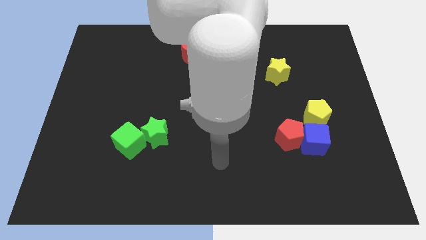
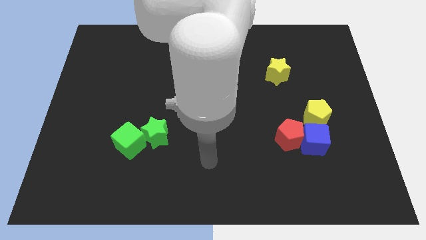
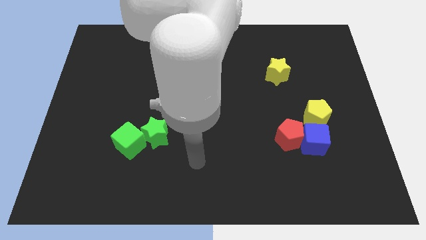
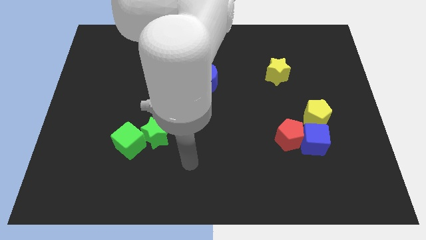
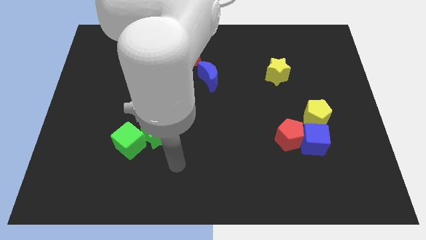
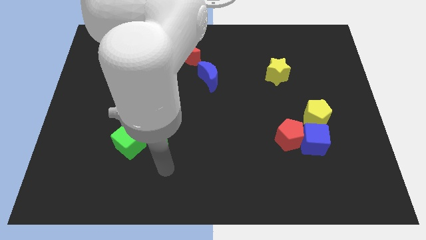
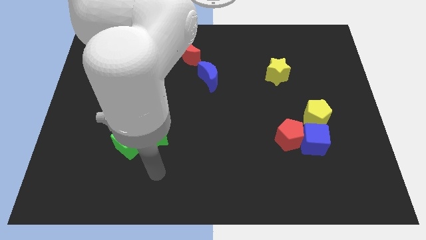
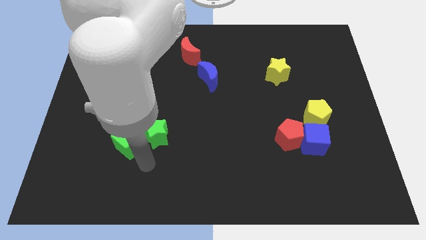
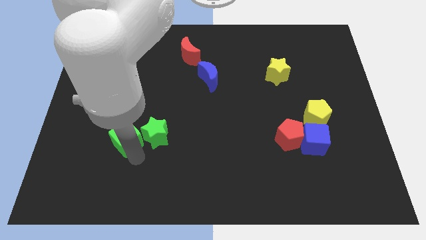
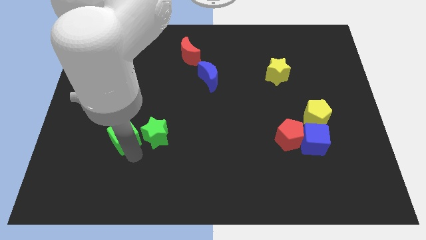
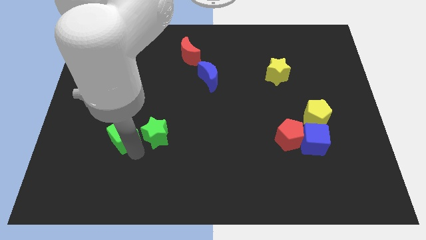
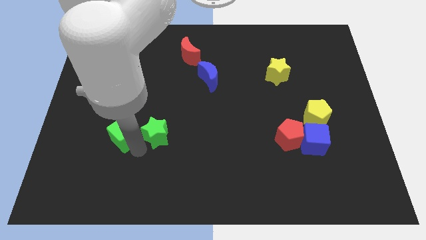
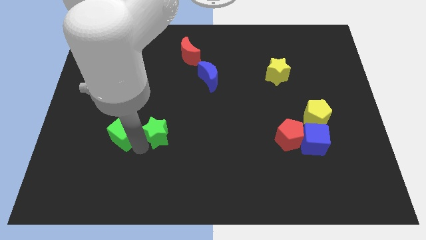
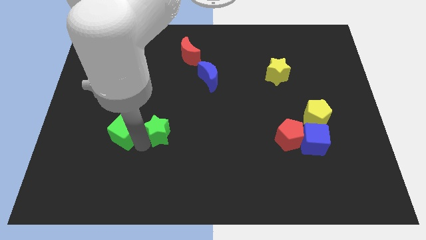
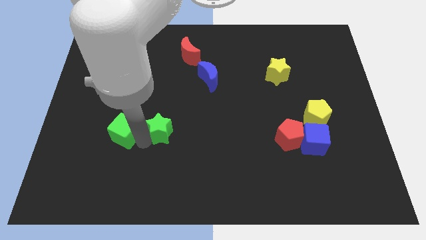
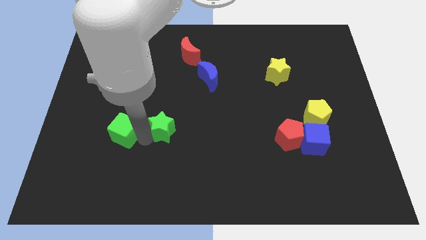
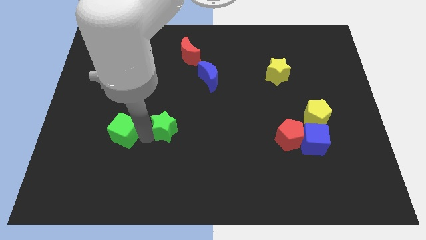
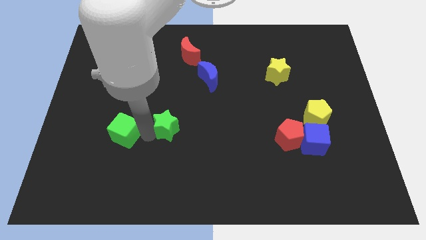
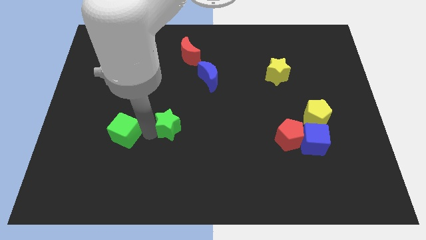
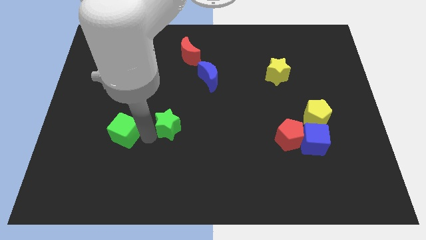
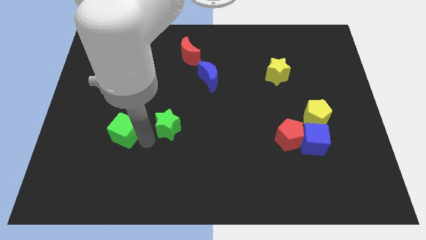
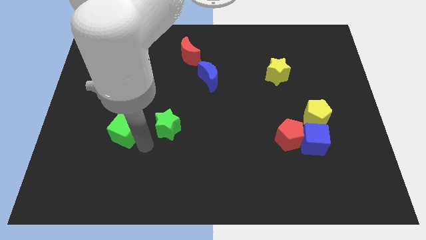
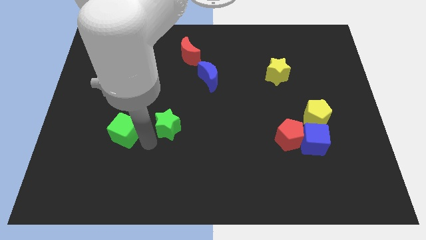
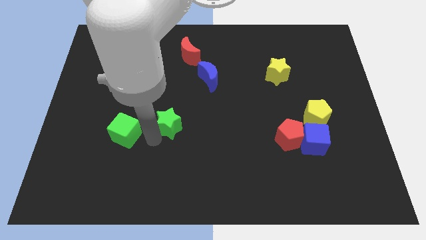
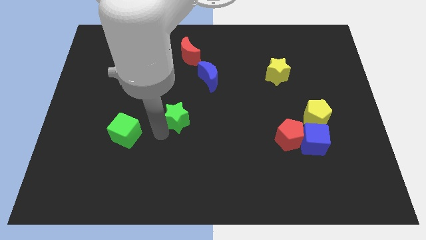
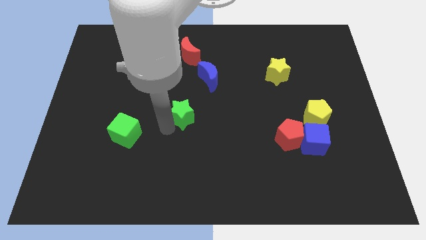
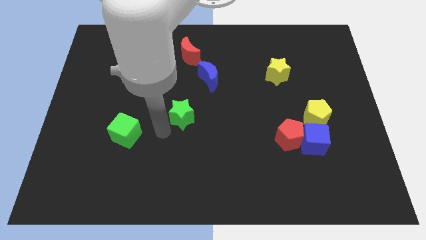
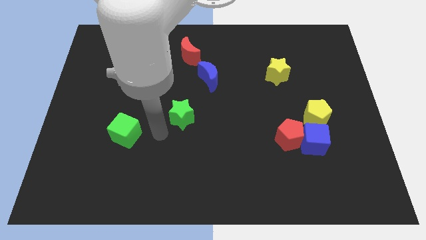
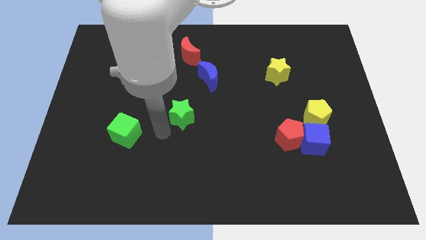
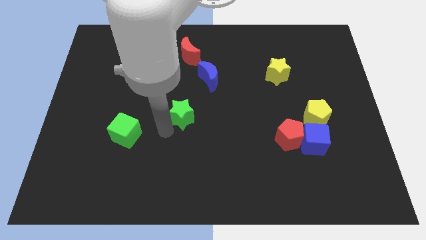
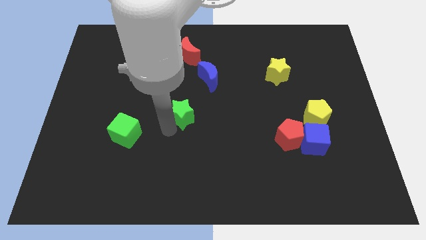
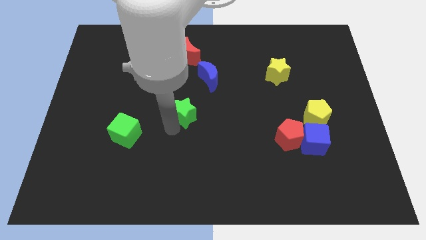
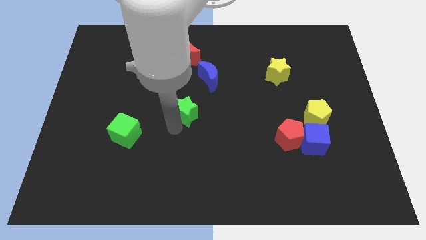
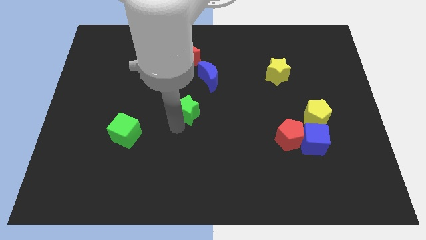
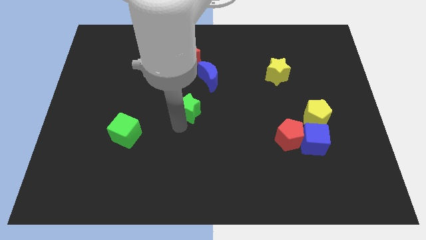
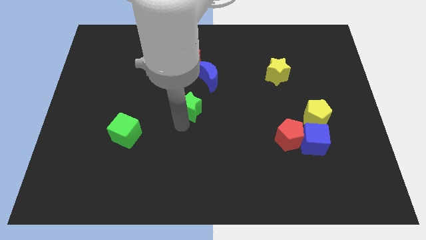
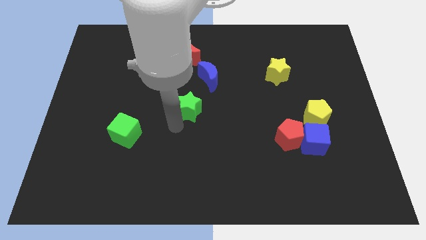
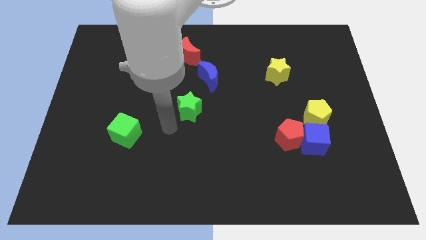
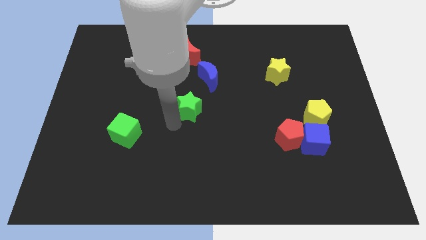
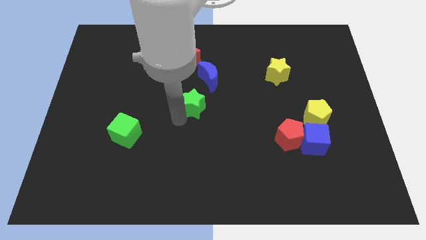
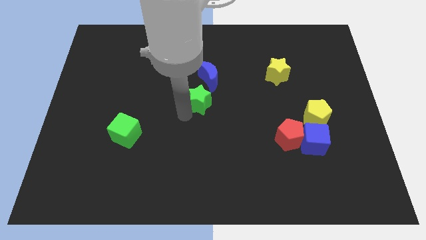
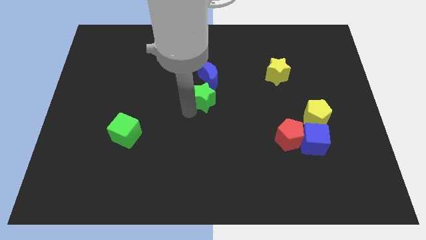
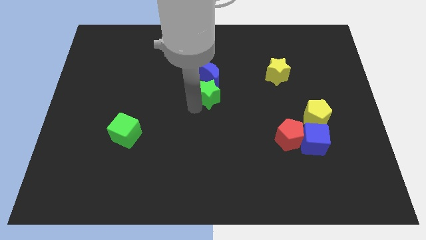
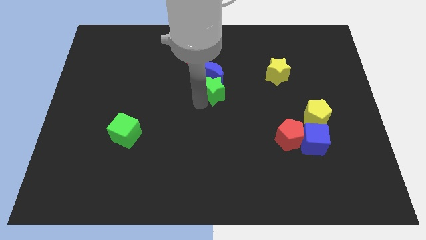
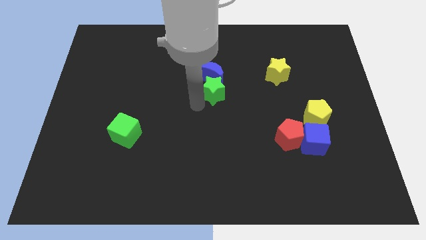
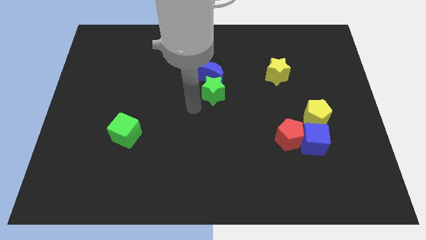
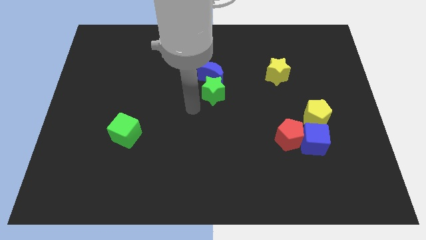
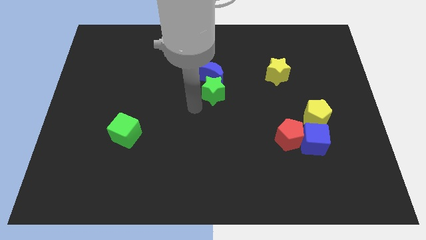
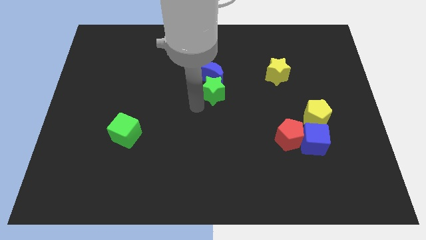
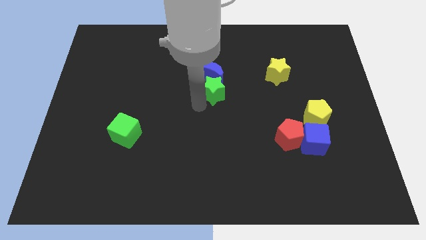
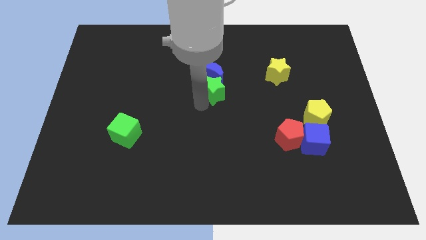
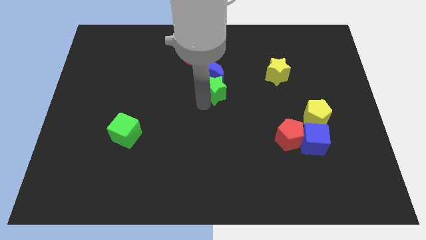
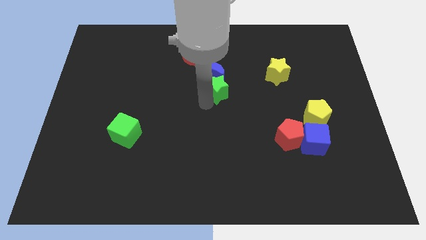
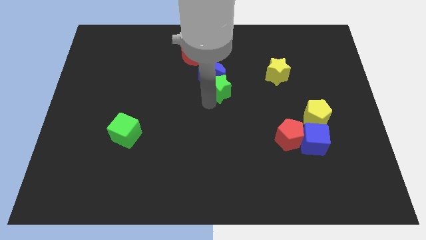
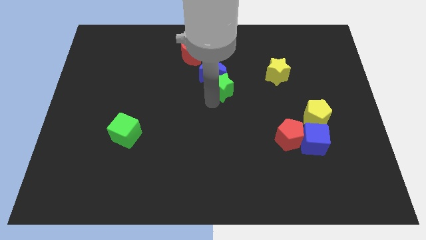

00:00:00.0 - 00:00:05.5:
push the green star up and to the right diagonally

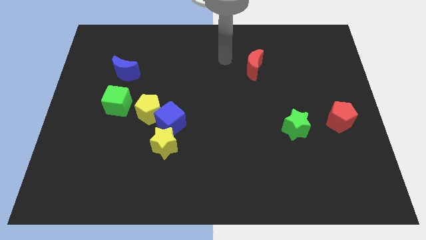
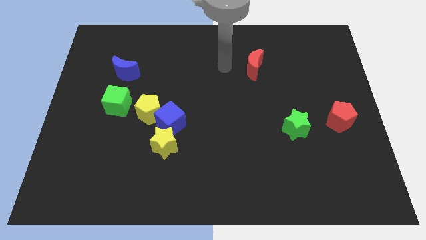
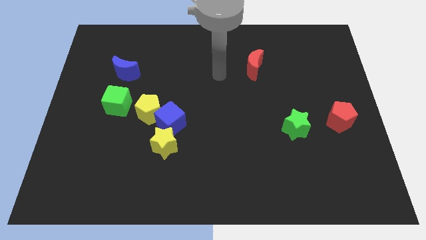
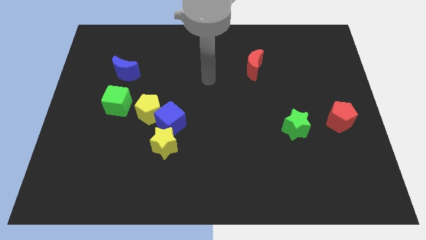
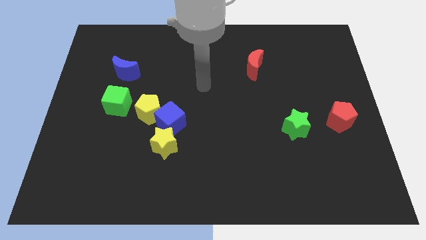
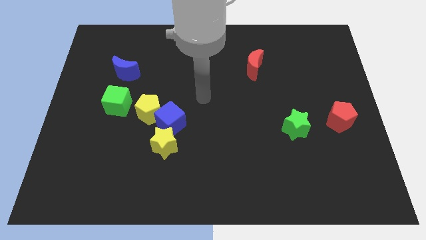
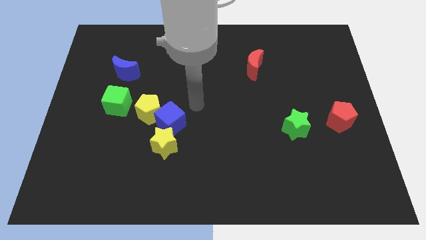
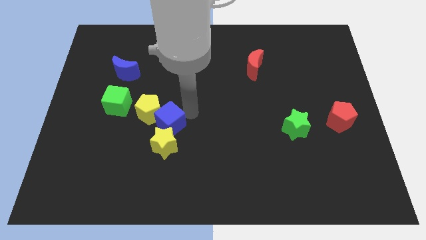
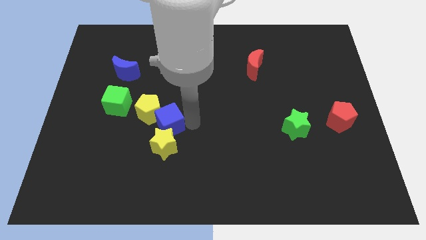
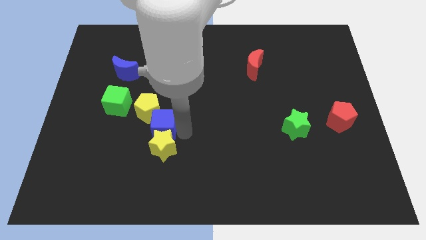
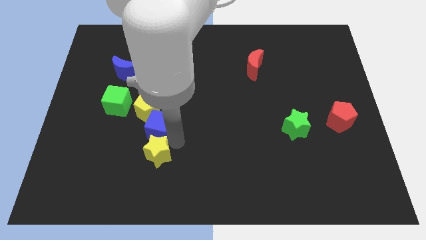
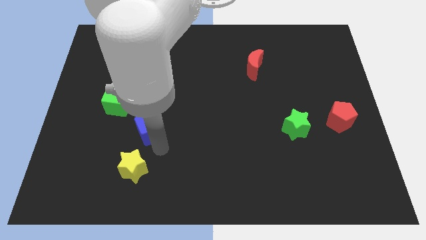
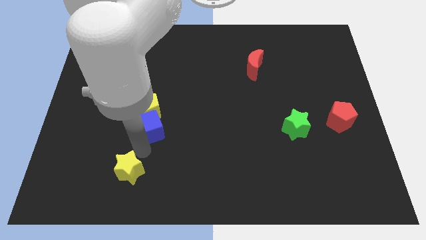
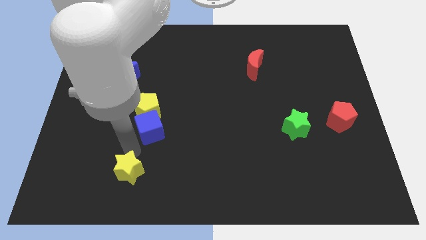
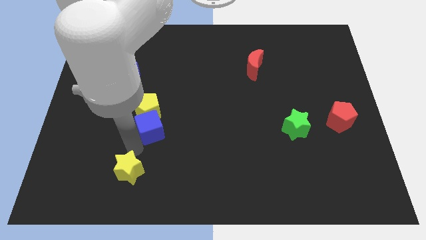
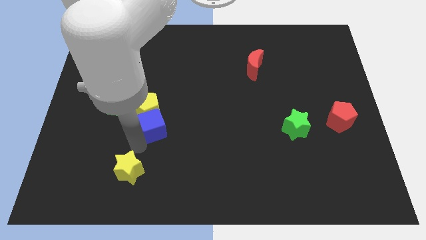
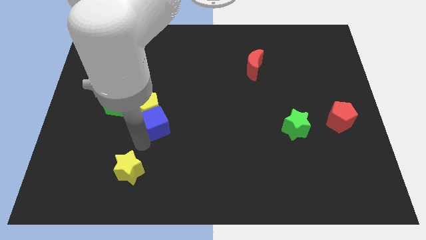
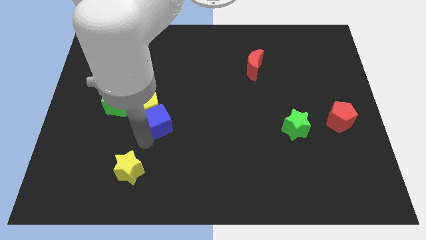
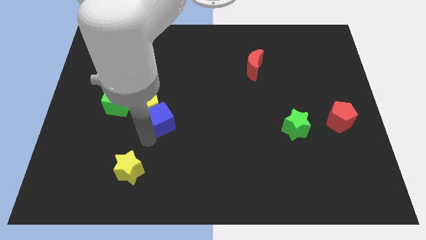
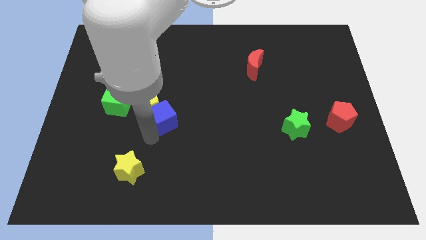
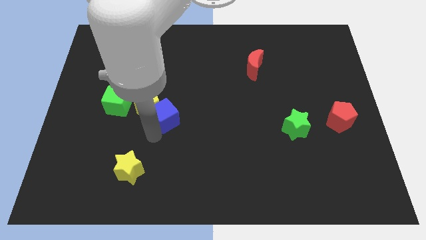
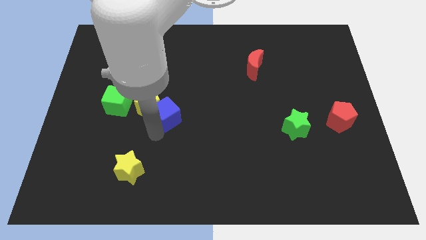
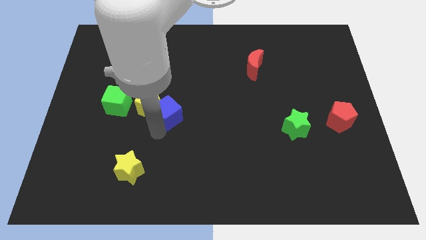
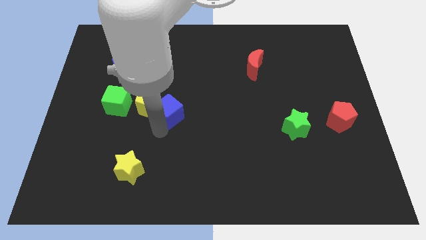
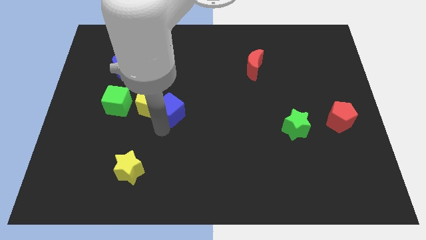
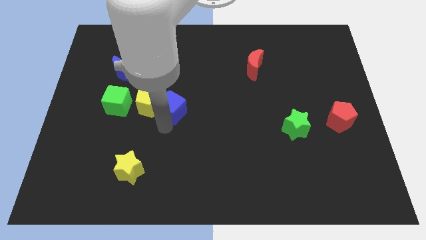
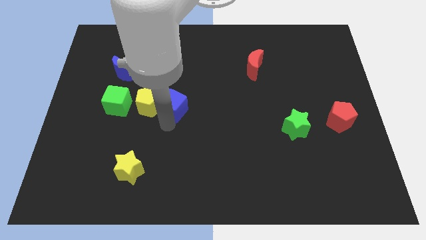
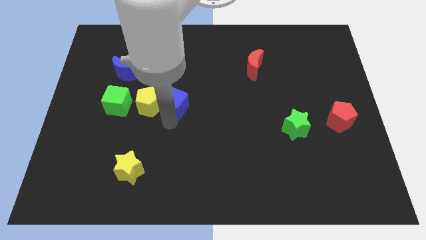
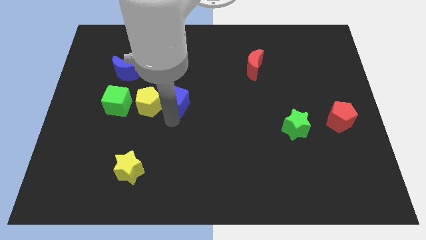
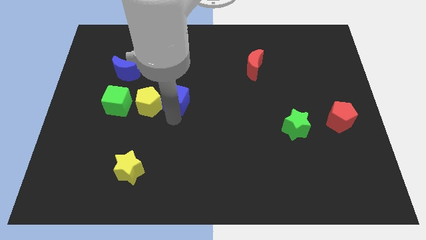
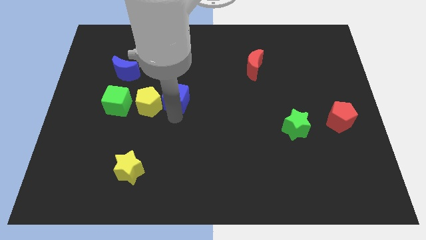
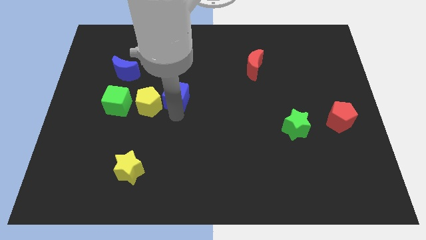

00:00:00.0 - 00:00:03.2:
slightly move the blue cube up
